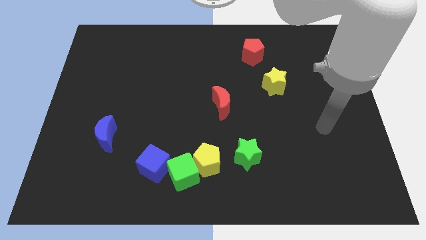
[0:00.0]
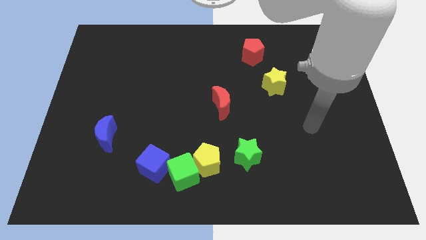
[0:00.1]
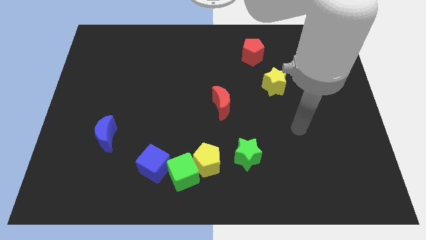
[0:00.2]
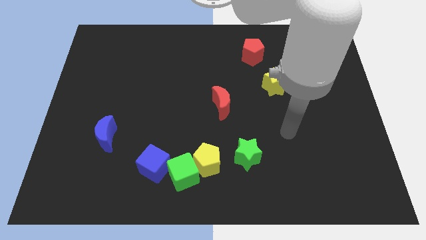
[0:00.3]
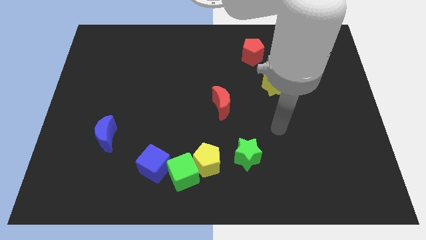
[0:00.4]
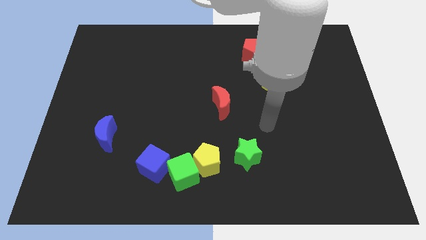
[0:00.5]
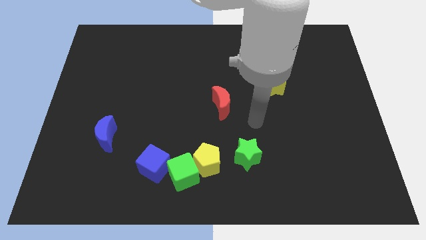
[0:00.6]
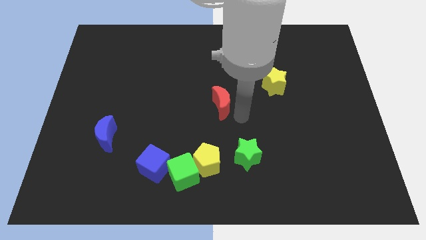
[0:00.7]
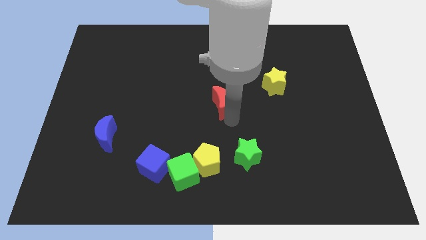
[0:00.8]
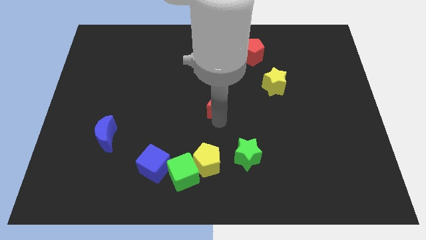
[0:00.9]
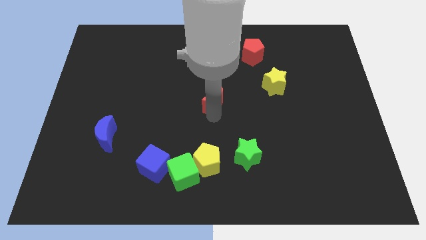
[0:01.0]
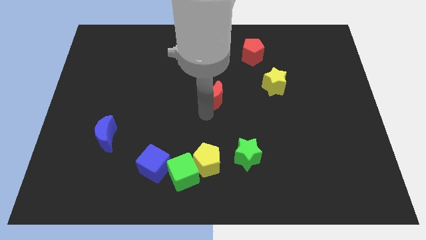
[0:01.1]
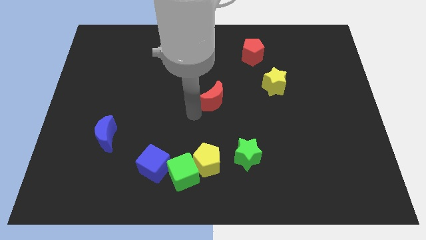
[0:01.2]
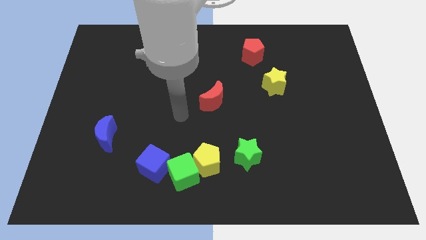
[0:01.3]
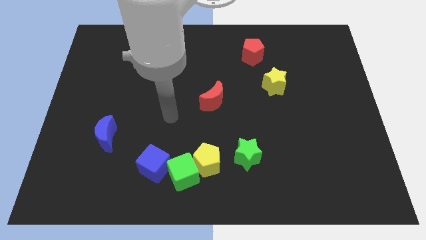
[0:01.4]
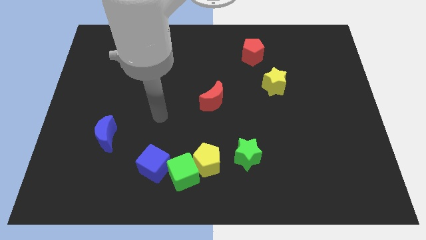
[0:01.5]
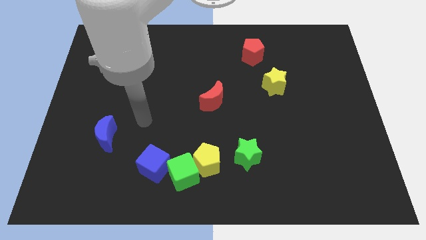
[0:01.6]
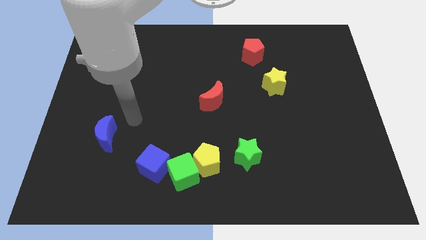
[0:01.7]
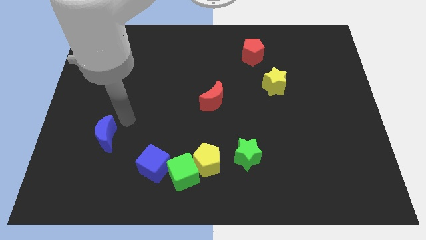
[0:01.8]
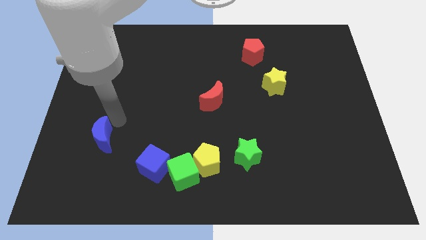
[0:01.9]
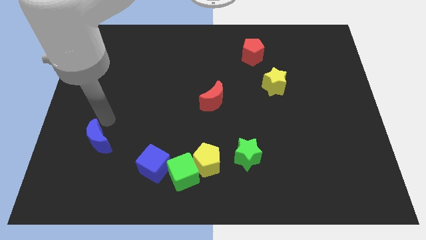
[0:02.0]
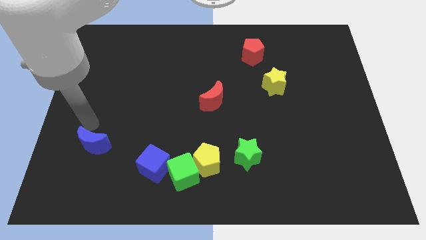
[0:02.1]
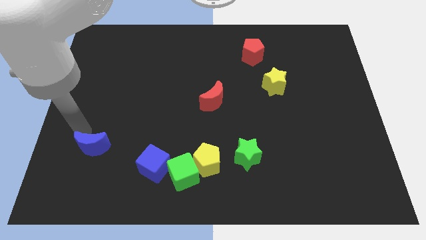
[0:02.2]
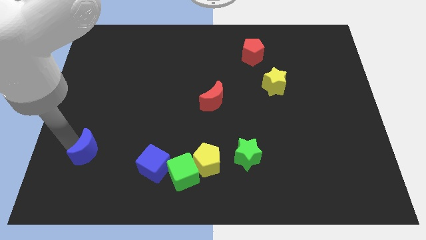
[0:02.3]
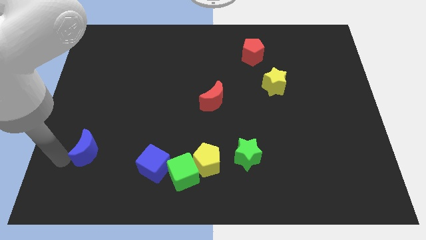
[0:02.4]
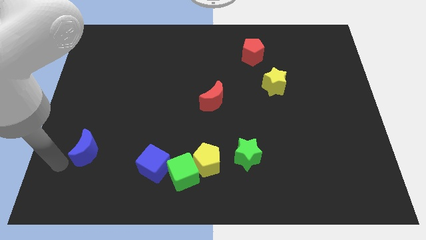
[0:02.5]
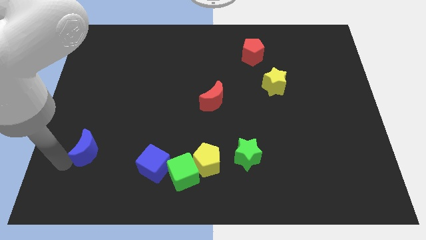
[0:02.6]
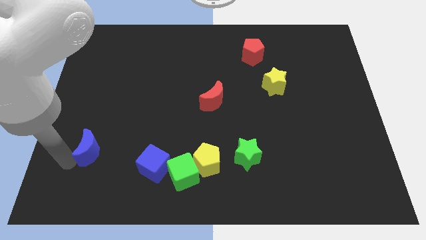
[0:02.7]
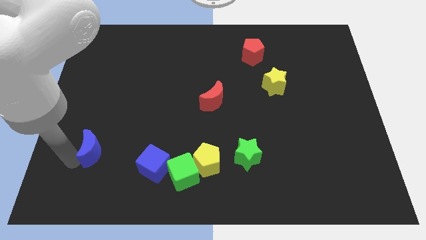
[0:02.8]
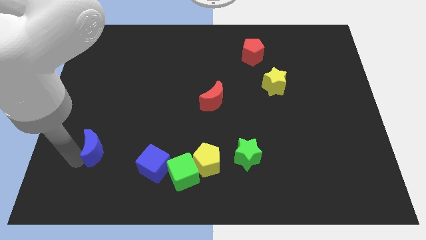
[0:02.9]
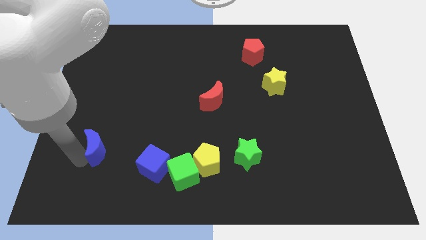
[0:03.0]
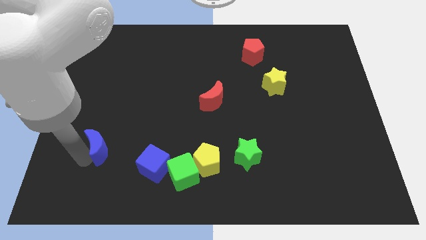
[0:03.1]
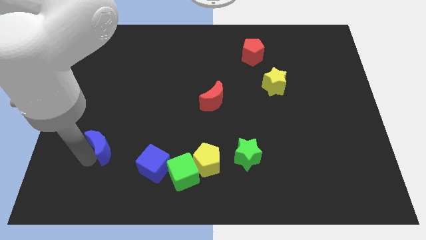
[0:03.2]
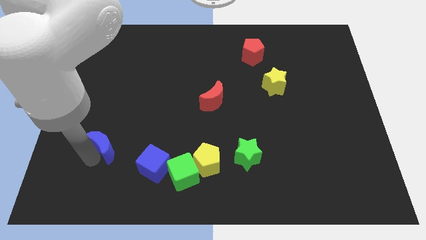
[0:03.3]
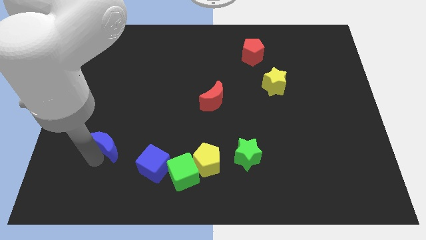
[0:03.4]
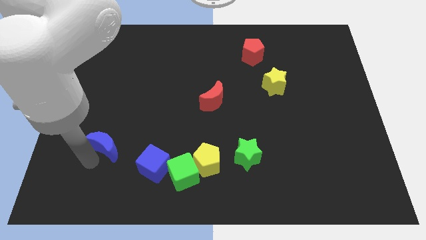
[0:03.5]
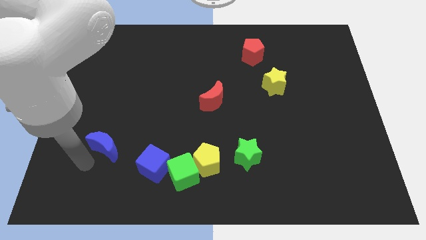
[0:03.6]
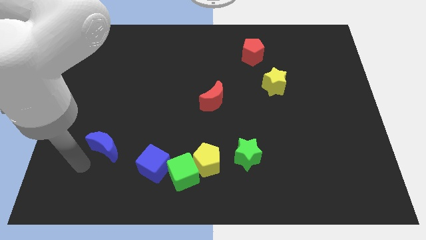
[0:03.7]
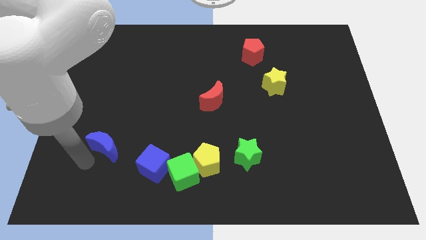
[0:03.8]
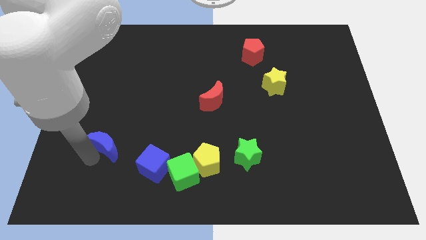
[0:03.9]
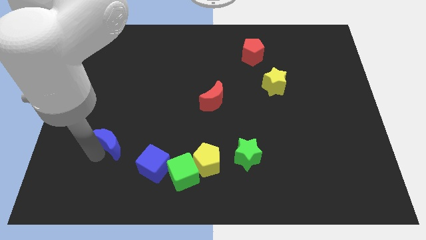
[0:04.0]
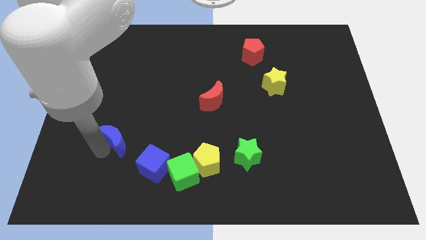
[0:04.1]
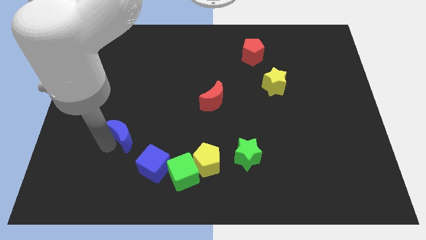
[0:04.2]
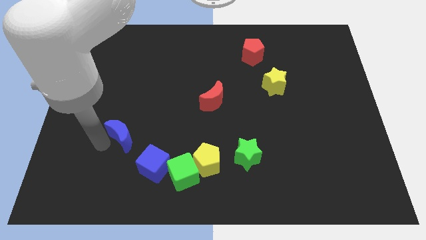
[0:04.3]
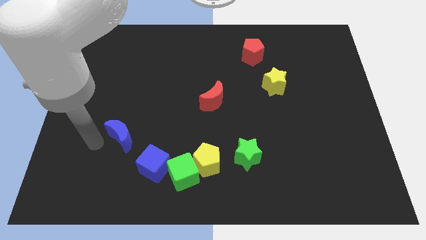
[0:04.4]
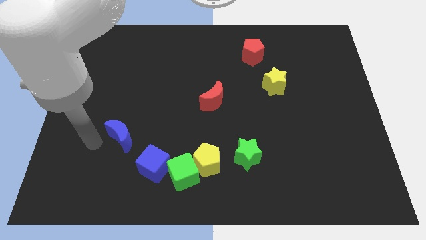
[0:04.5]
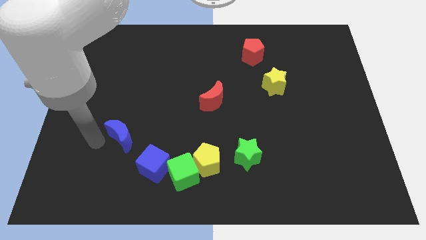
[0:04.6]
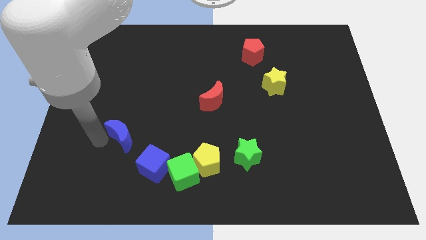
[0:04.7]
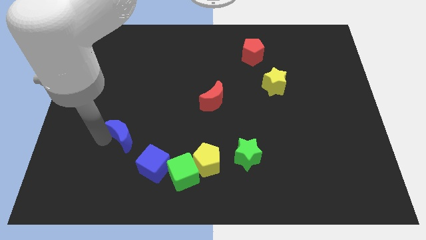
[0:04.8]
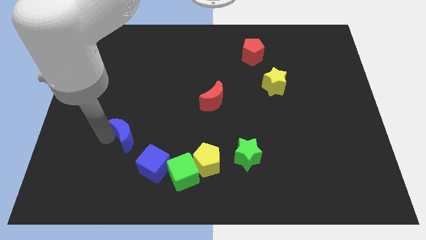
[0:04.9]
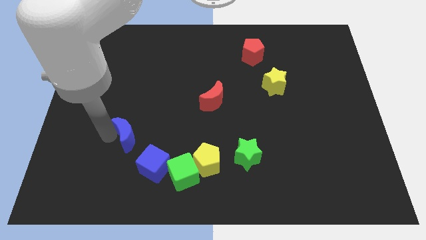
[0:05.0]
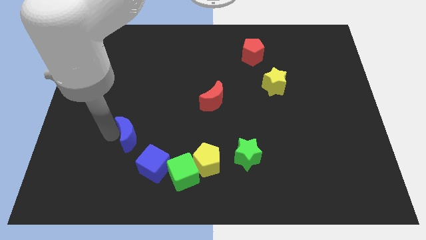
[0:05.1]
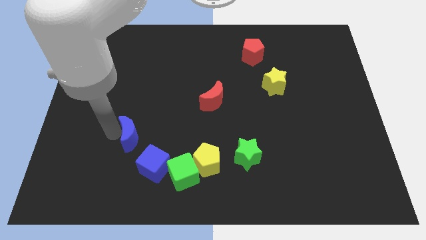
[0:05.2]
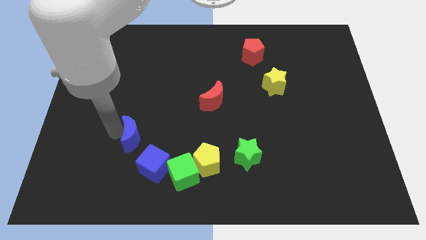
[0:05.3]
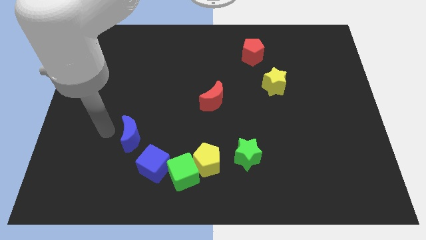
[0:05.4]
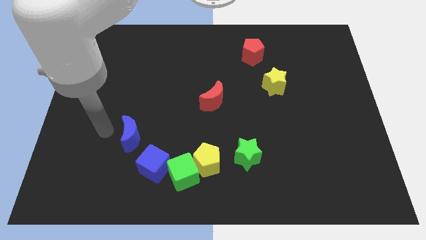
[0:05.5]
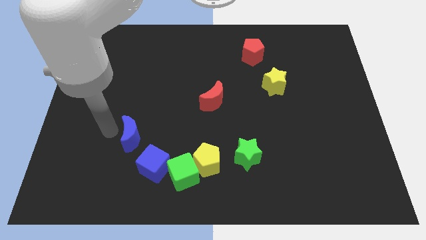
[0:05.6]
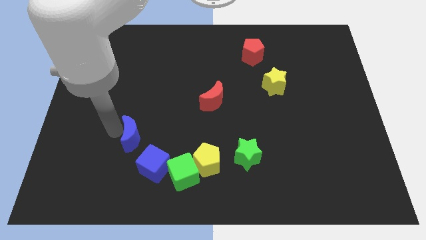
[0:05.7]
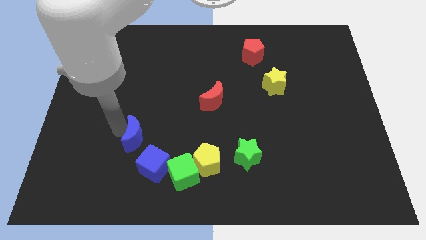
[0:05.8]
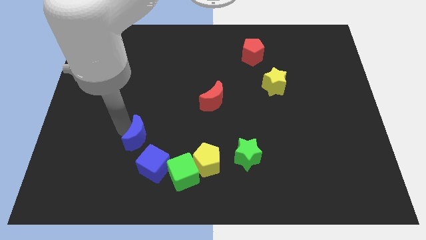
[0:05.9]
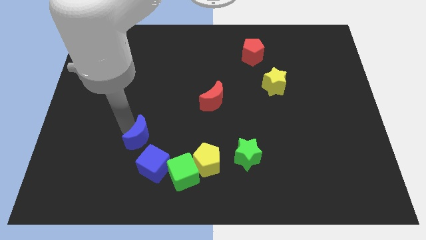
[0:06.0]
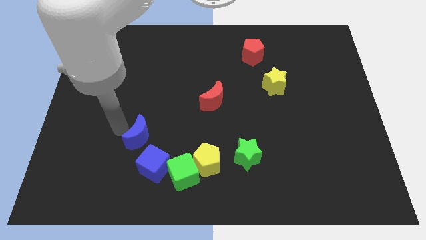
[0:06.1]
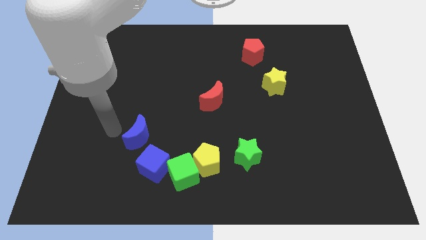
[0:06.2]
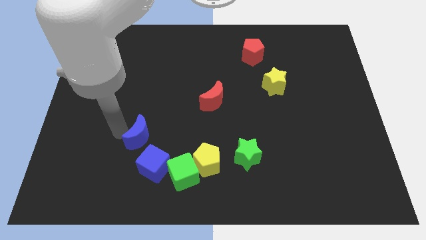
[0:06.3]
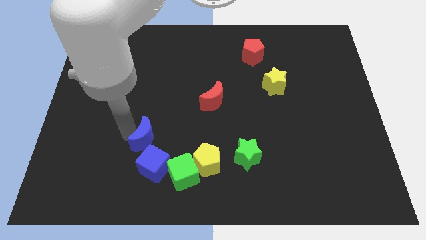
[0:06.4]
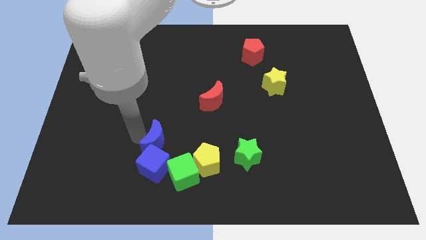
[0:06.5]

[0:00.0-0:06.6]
push the blue moon to the top right side of the blue cube
